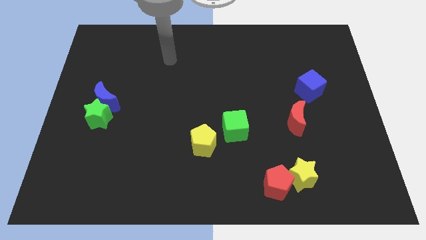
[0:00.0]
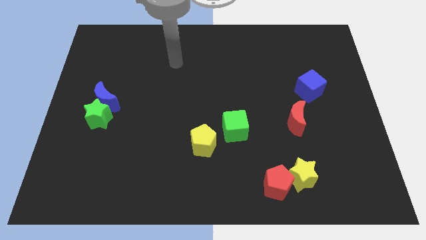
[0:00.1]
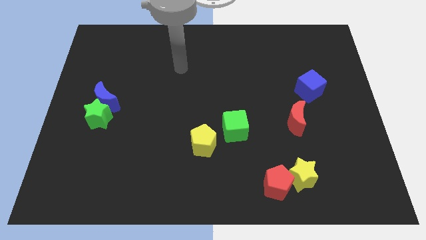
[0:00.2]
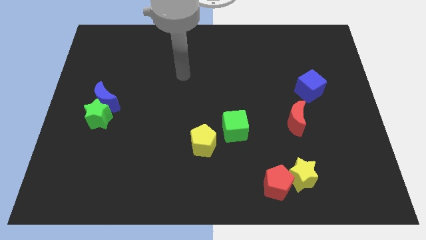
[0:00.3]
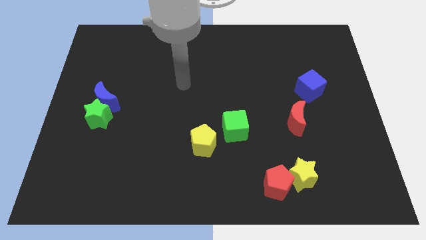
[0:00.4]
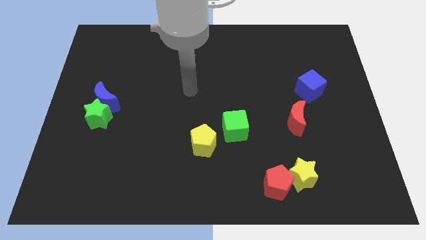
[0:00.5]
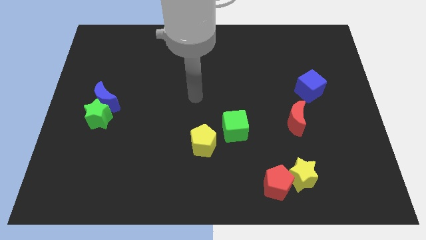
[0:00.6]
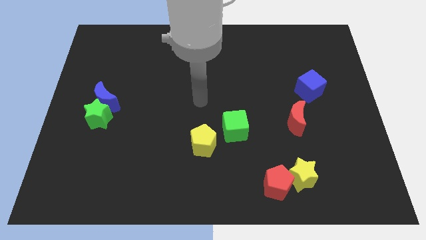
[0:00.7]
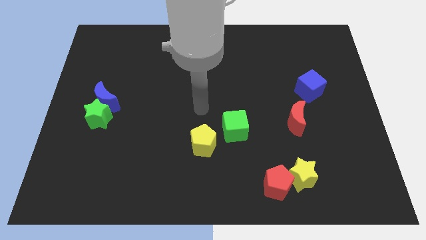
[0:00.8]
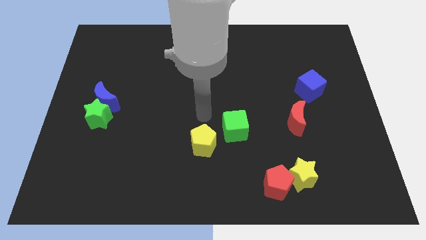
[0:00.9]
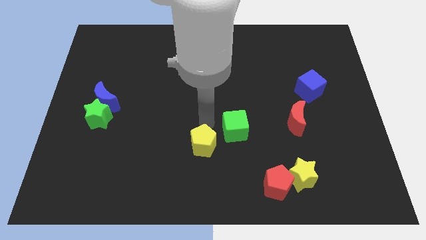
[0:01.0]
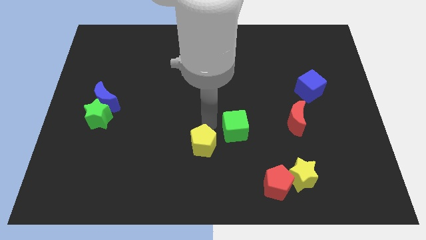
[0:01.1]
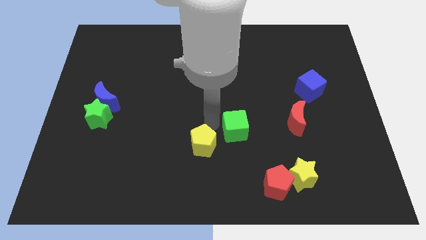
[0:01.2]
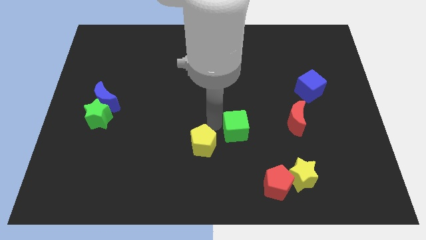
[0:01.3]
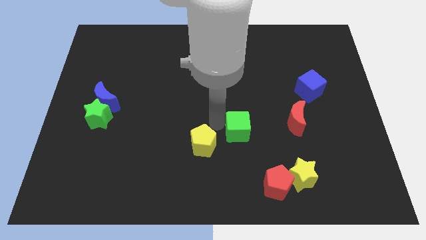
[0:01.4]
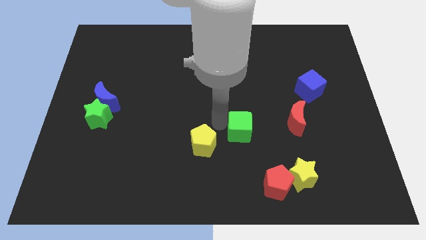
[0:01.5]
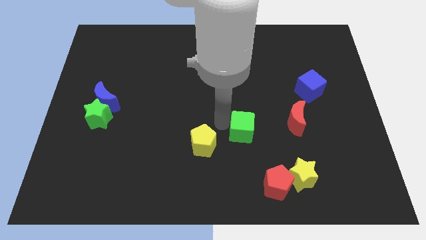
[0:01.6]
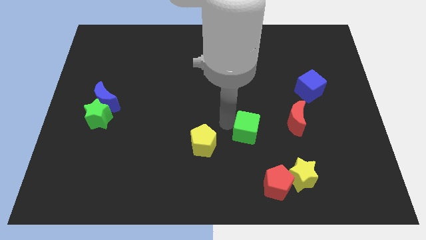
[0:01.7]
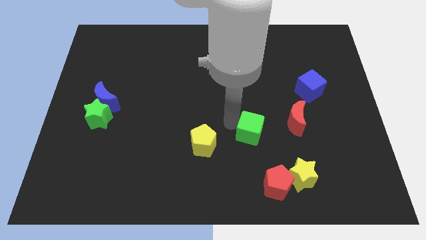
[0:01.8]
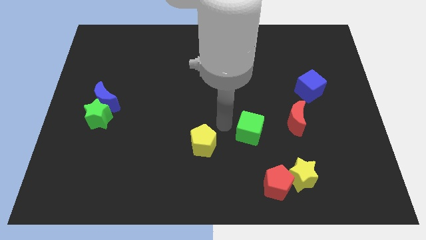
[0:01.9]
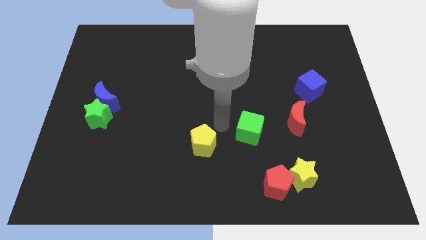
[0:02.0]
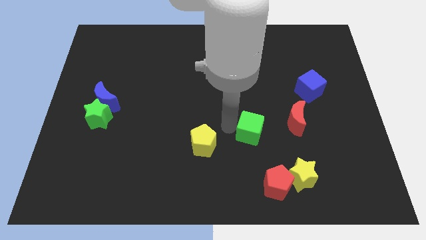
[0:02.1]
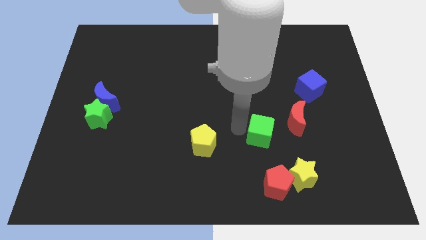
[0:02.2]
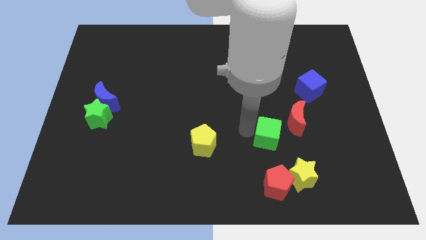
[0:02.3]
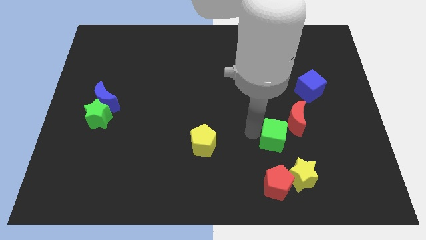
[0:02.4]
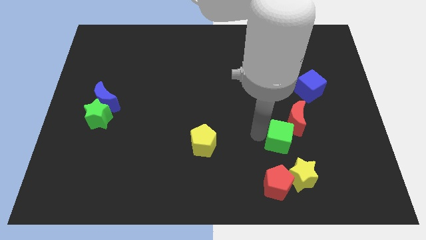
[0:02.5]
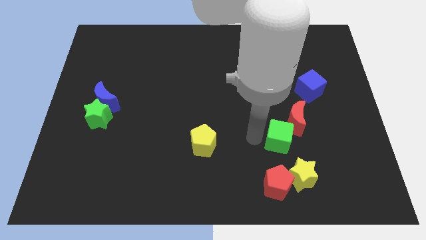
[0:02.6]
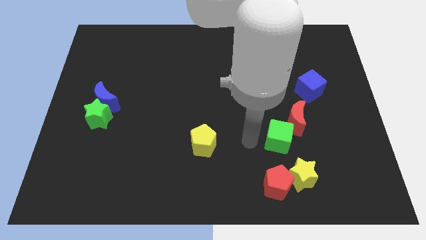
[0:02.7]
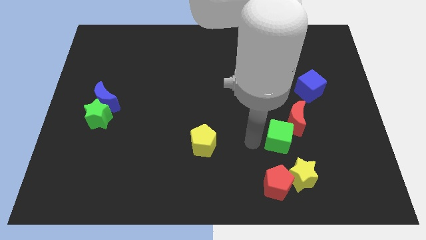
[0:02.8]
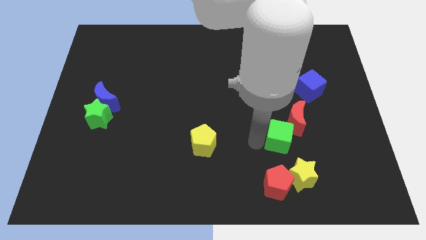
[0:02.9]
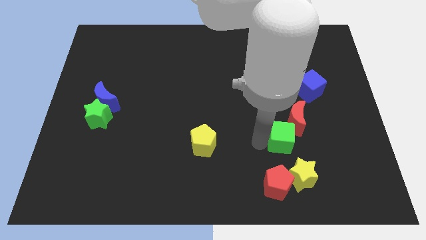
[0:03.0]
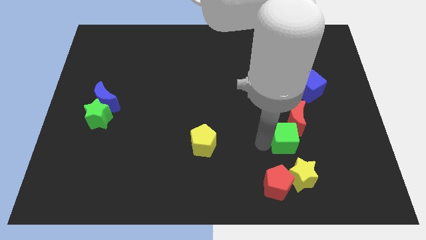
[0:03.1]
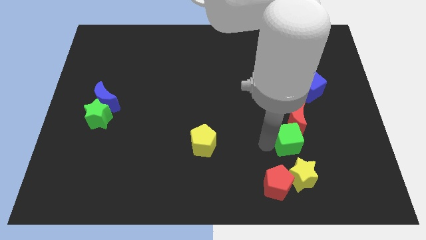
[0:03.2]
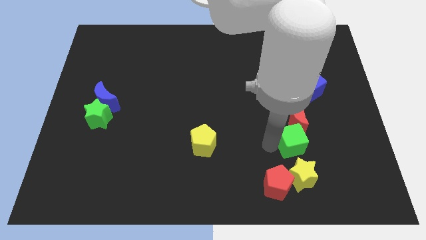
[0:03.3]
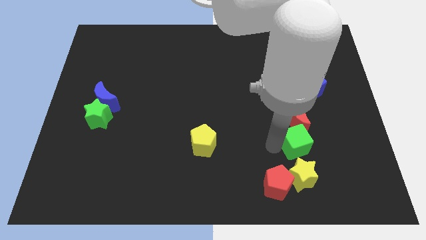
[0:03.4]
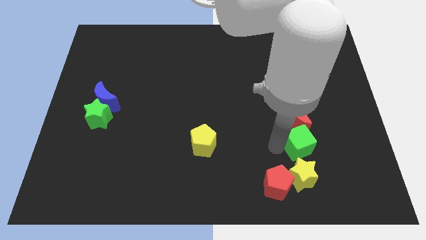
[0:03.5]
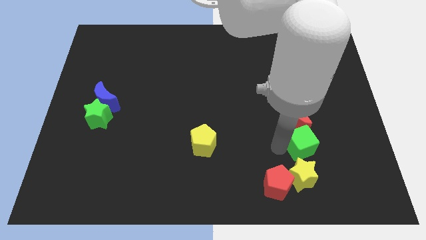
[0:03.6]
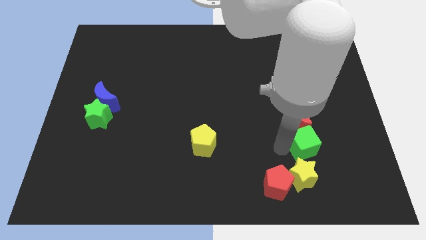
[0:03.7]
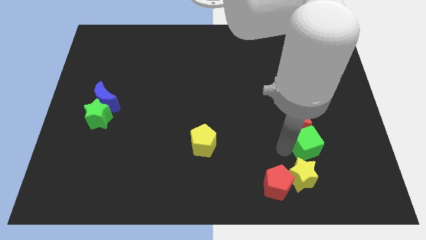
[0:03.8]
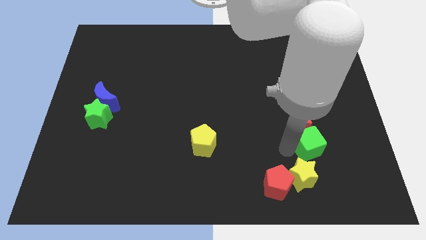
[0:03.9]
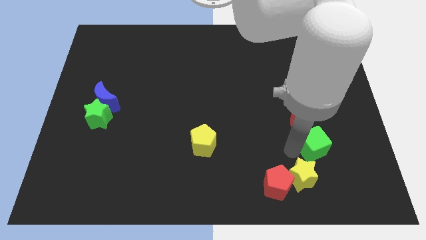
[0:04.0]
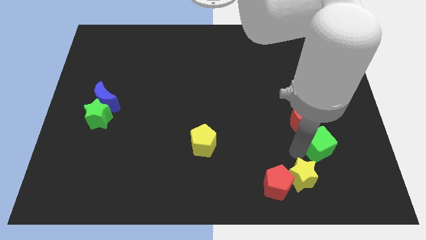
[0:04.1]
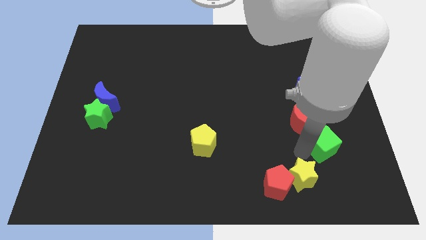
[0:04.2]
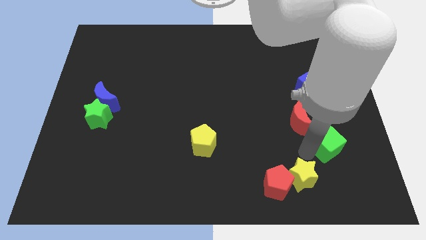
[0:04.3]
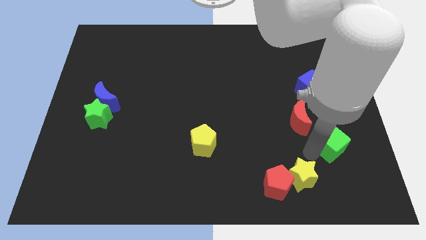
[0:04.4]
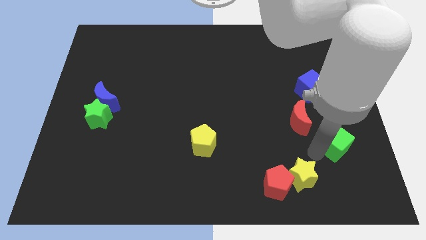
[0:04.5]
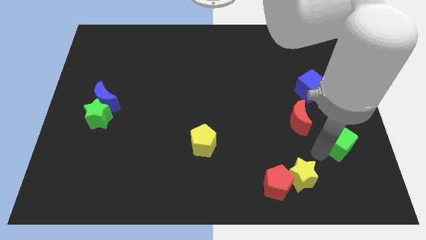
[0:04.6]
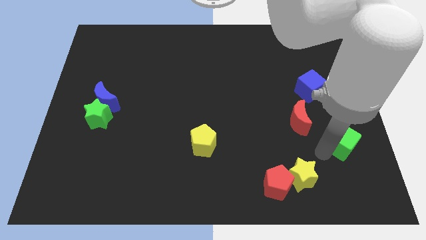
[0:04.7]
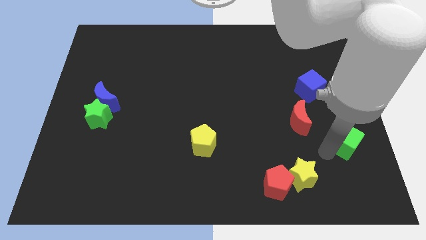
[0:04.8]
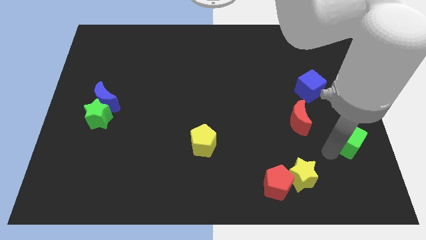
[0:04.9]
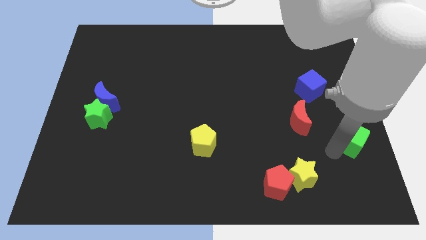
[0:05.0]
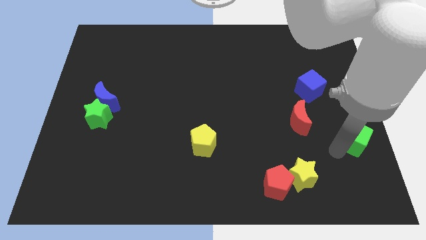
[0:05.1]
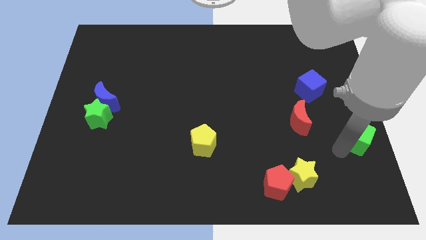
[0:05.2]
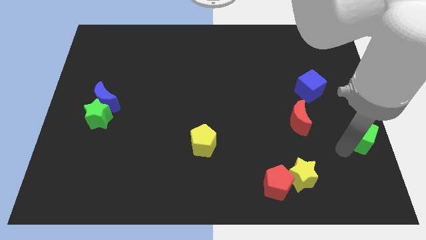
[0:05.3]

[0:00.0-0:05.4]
move the green cube just right of the red moon

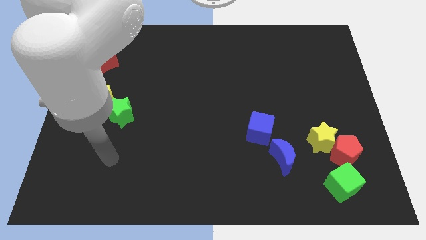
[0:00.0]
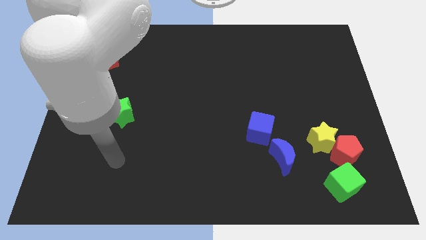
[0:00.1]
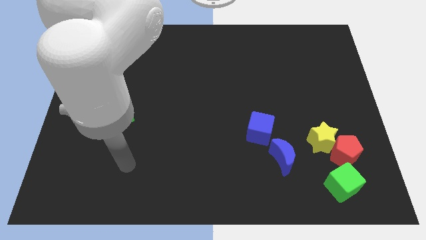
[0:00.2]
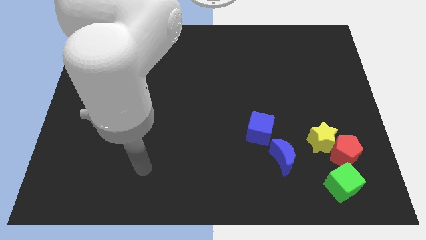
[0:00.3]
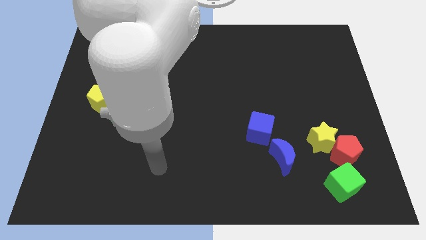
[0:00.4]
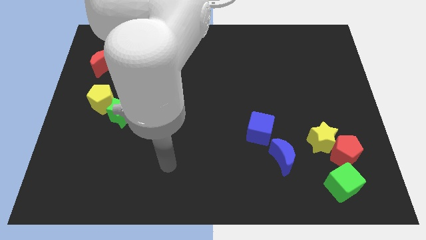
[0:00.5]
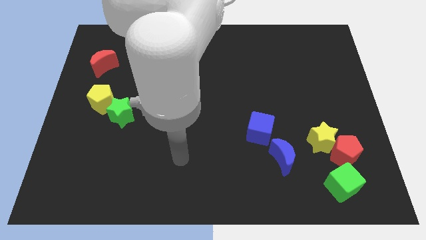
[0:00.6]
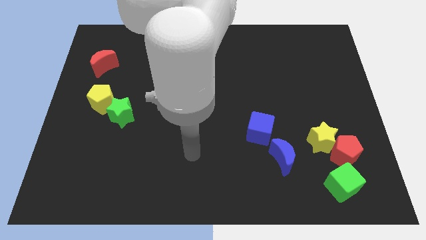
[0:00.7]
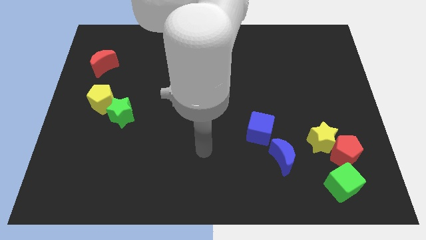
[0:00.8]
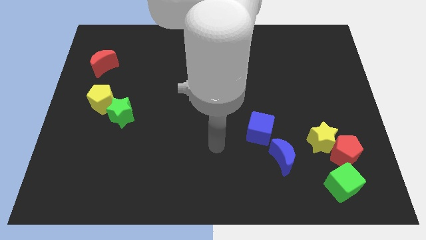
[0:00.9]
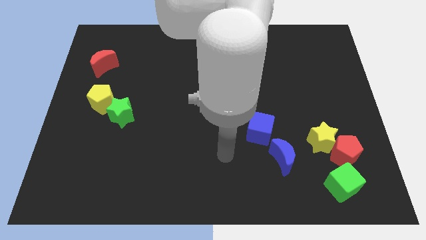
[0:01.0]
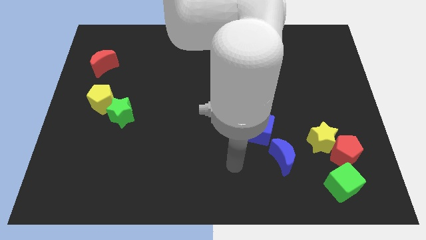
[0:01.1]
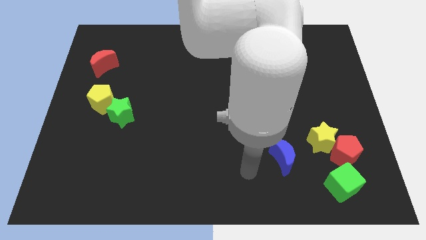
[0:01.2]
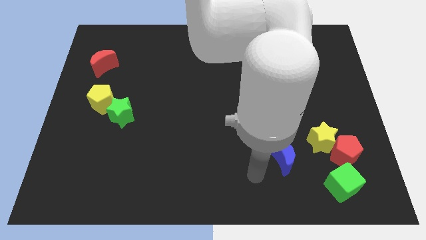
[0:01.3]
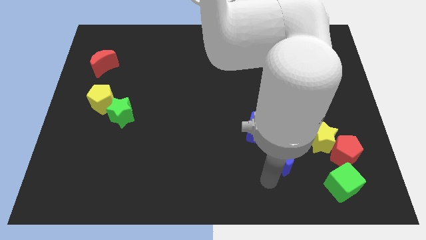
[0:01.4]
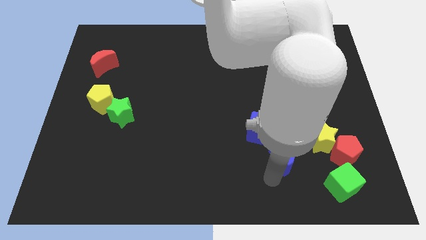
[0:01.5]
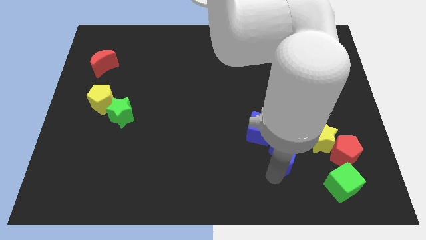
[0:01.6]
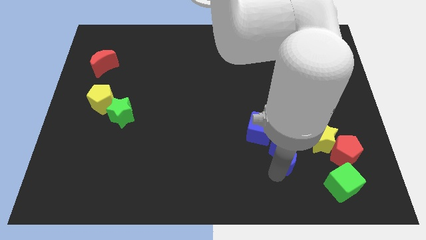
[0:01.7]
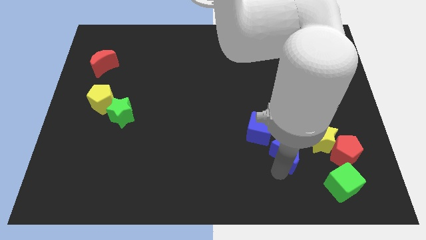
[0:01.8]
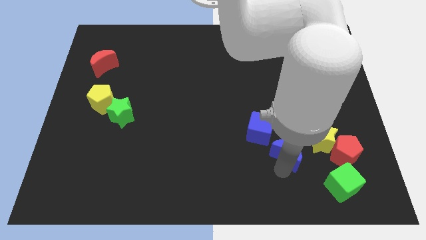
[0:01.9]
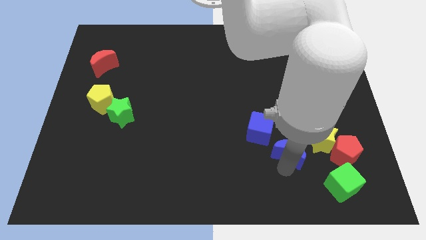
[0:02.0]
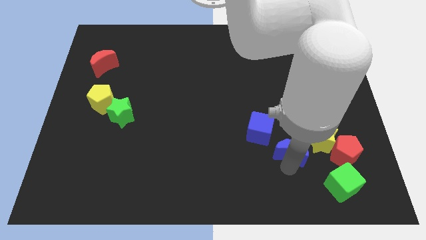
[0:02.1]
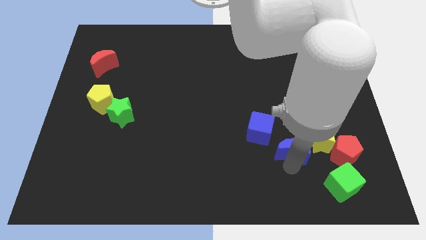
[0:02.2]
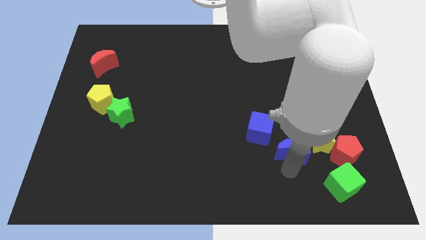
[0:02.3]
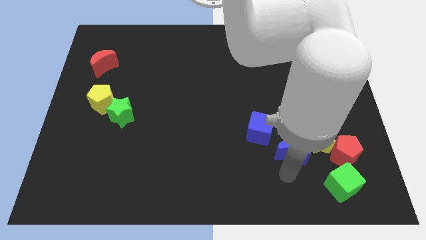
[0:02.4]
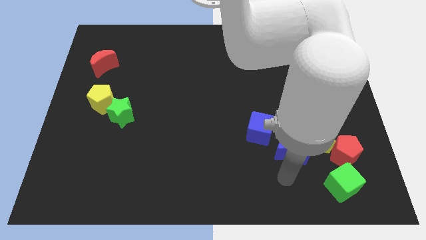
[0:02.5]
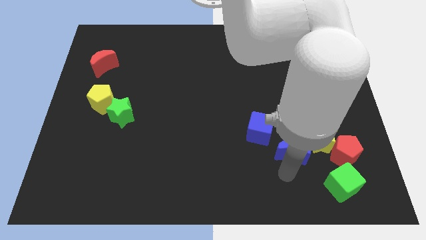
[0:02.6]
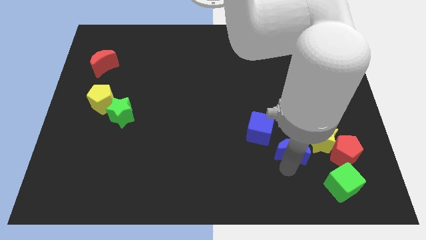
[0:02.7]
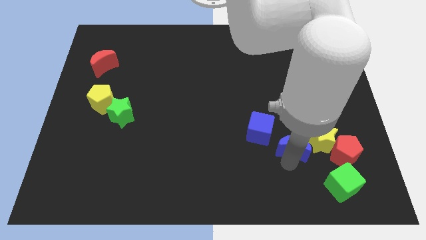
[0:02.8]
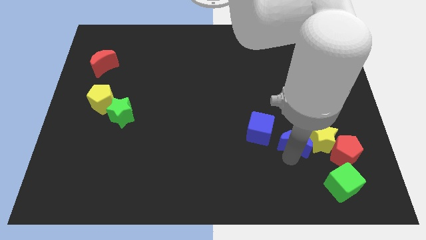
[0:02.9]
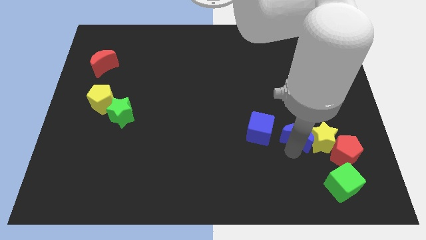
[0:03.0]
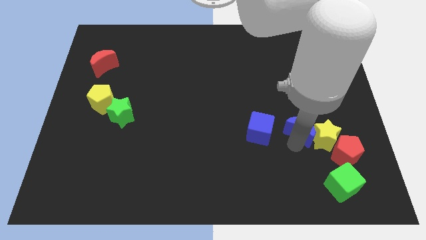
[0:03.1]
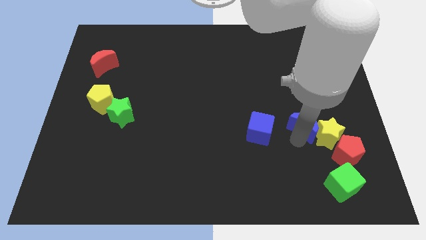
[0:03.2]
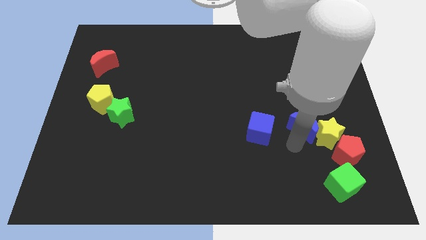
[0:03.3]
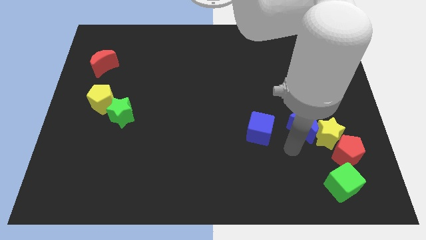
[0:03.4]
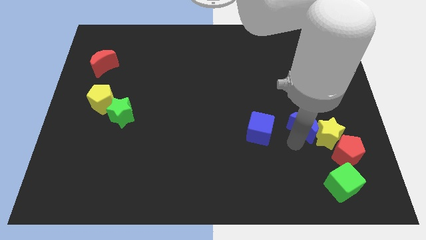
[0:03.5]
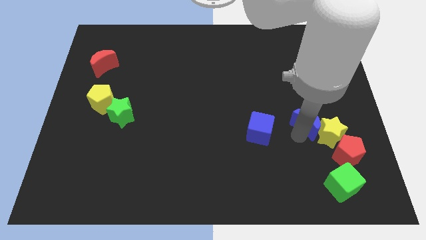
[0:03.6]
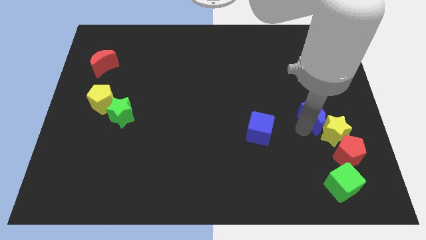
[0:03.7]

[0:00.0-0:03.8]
push the blue moon to the top side of the yellow star
